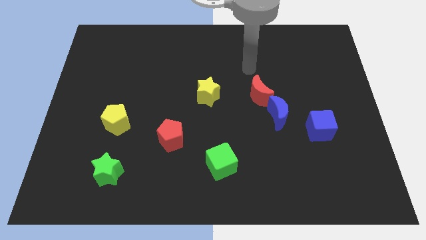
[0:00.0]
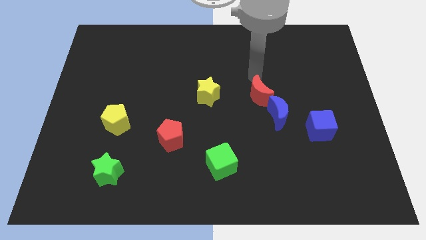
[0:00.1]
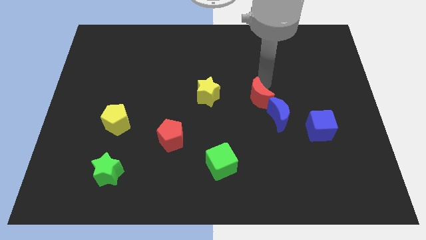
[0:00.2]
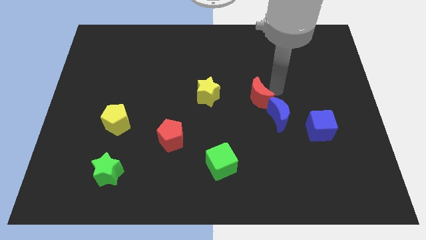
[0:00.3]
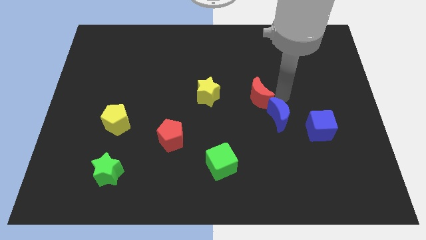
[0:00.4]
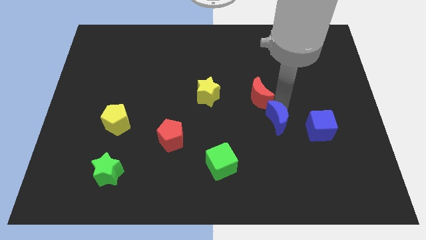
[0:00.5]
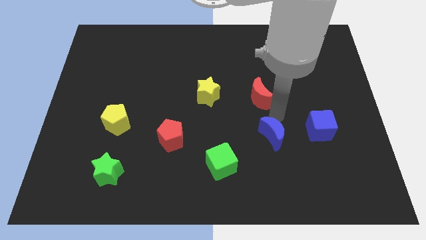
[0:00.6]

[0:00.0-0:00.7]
move the red moon away from the blue moon

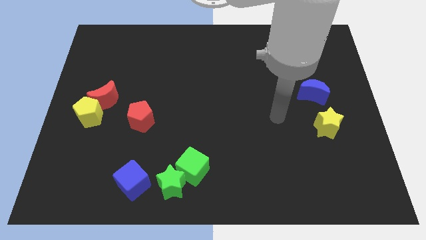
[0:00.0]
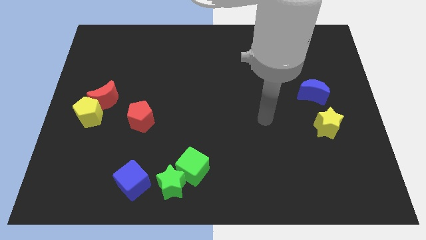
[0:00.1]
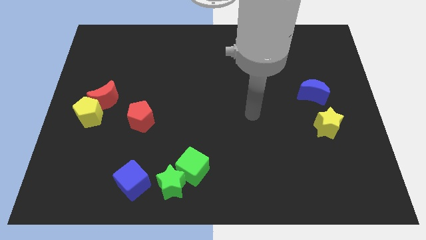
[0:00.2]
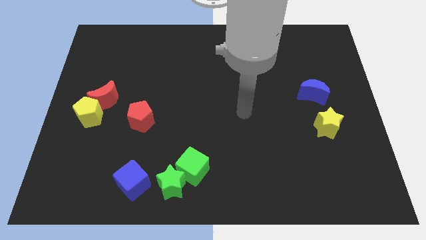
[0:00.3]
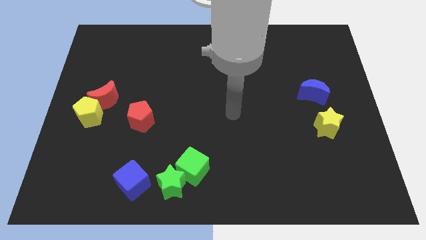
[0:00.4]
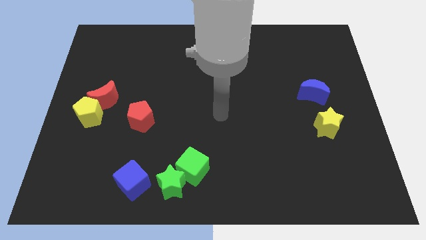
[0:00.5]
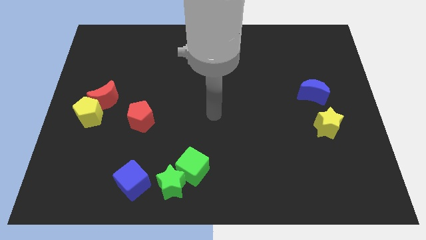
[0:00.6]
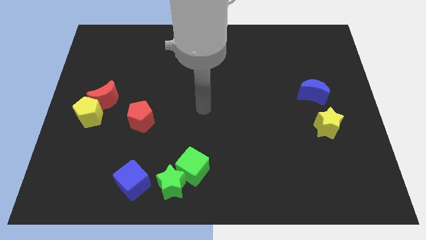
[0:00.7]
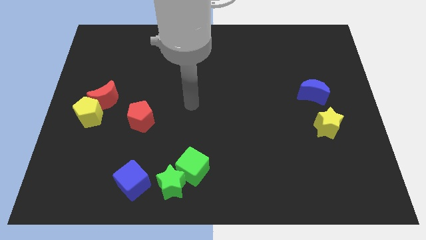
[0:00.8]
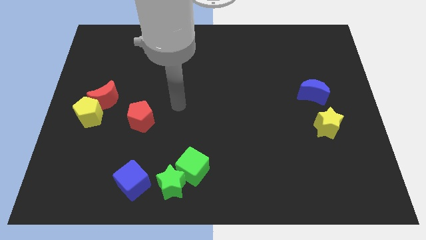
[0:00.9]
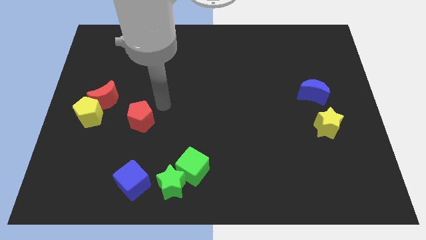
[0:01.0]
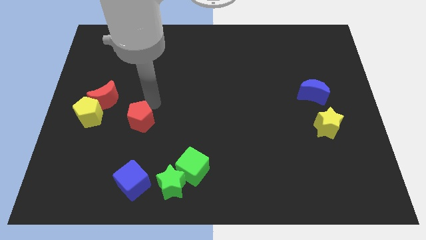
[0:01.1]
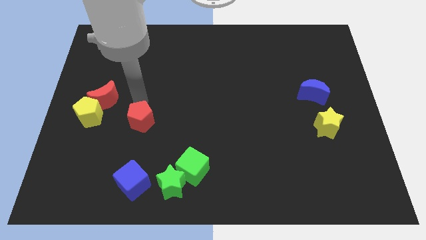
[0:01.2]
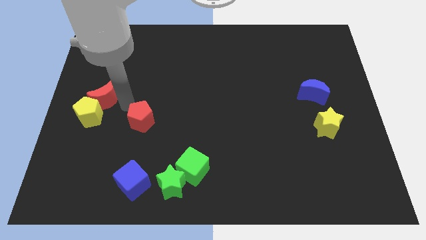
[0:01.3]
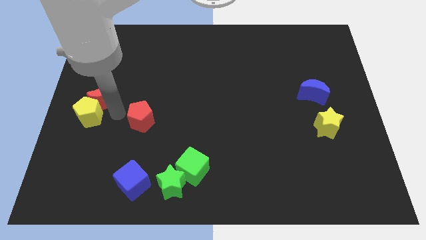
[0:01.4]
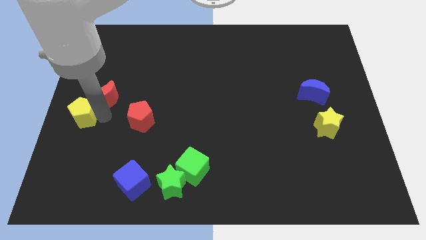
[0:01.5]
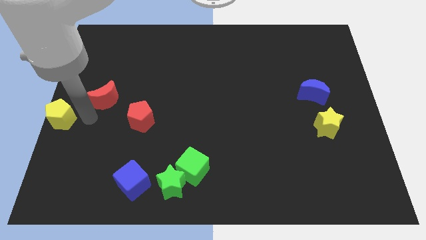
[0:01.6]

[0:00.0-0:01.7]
separate the red moon from the yellow pentagon

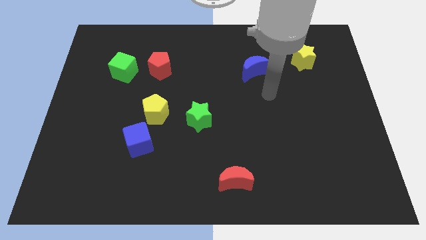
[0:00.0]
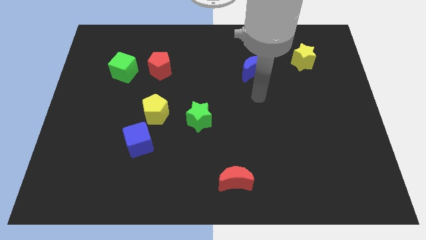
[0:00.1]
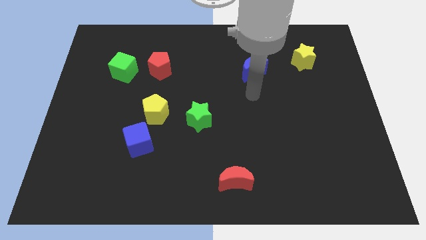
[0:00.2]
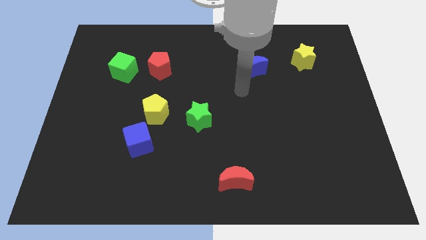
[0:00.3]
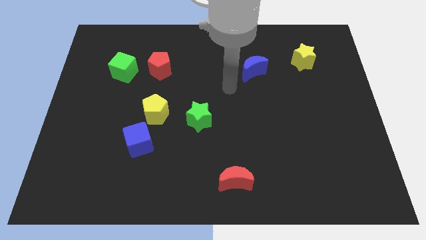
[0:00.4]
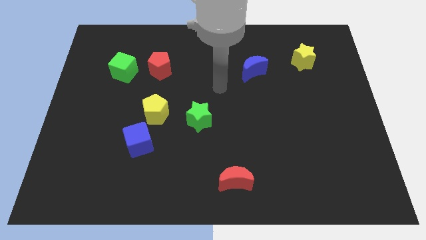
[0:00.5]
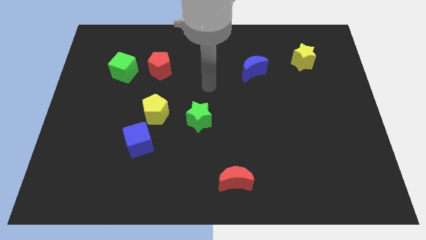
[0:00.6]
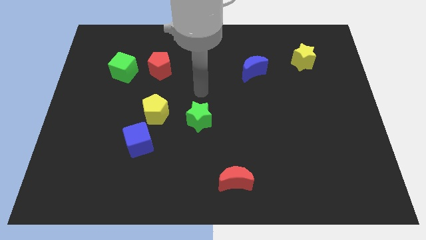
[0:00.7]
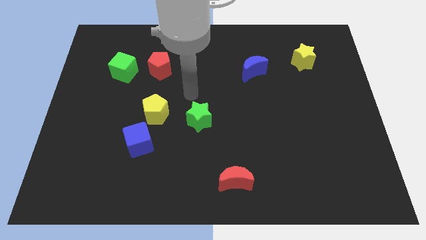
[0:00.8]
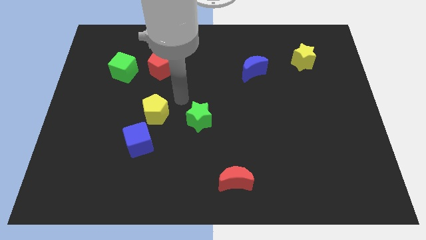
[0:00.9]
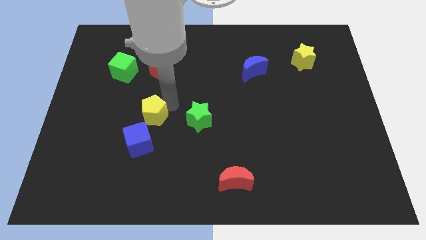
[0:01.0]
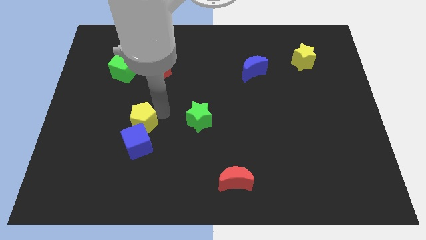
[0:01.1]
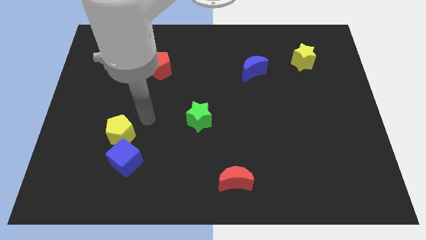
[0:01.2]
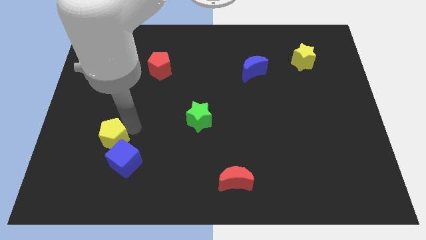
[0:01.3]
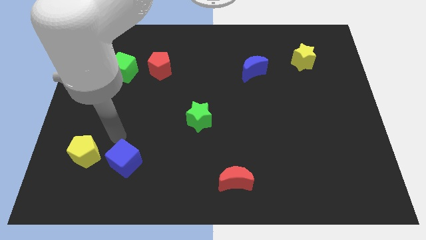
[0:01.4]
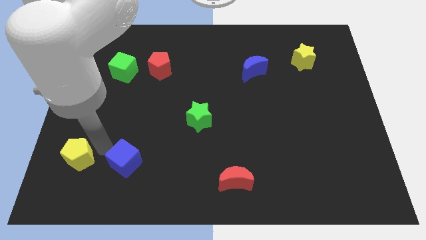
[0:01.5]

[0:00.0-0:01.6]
pull the blue cube apart from the yellow pentagon

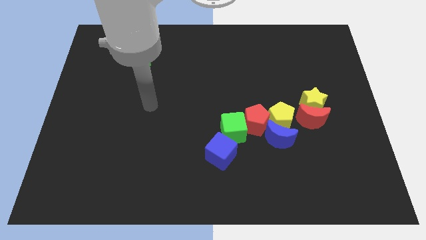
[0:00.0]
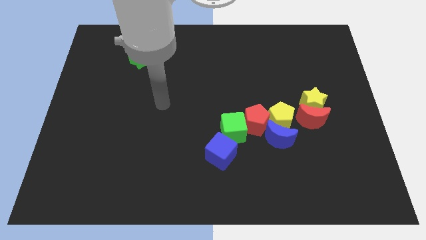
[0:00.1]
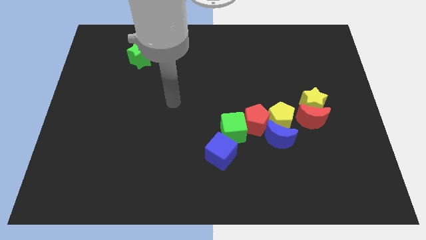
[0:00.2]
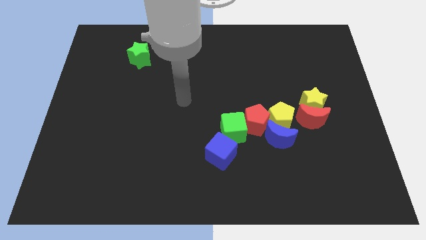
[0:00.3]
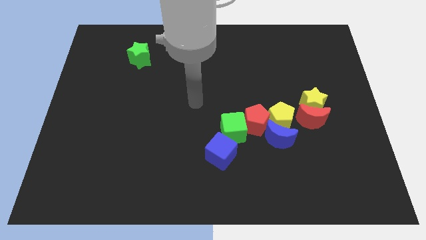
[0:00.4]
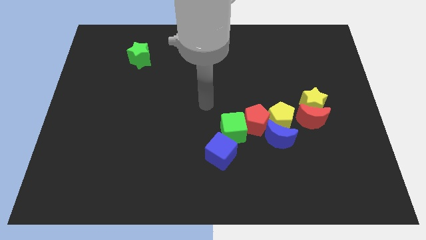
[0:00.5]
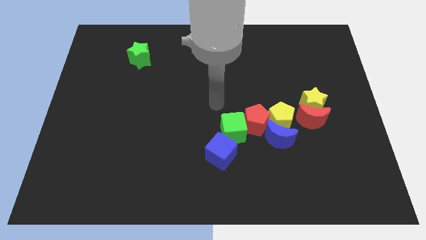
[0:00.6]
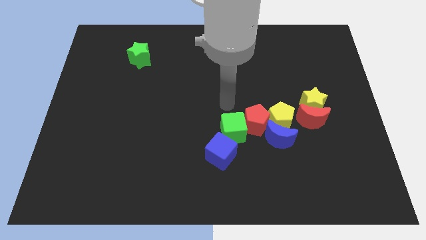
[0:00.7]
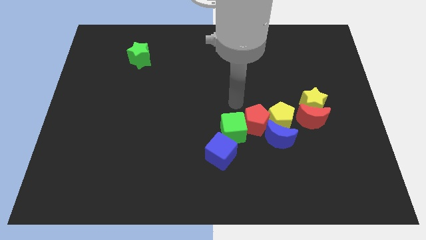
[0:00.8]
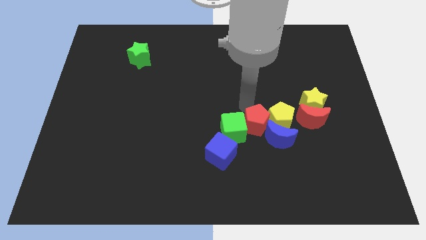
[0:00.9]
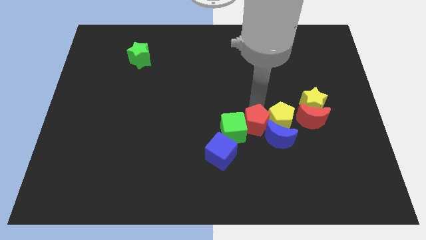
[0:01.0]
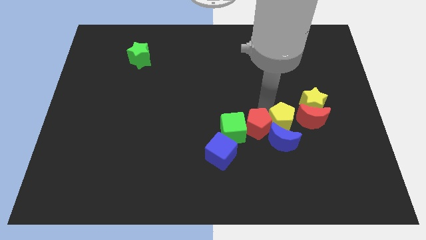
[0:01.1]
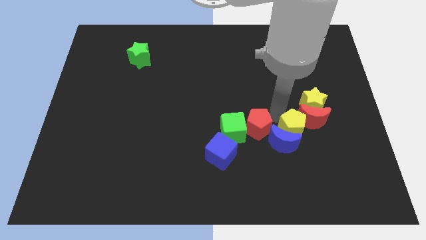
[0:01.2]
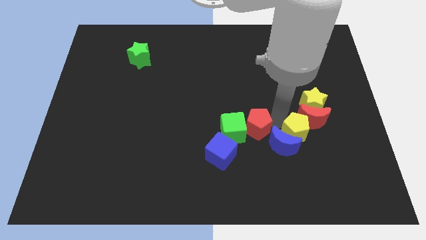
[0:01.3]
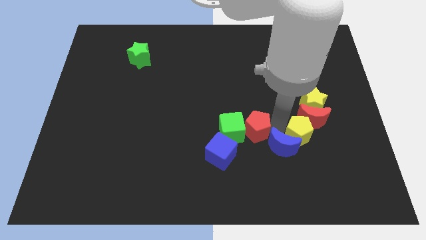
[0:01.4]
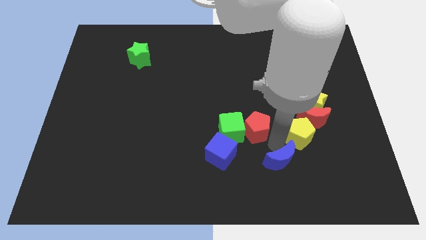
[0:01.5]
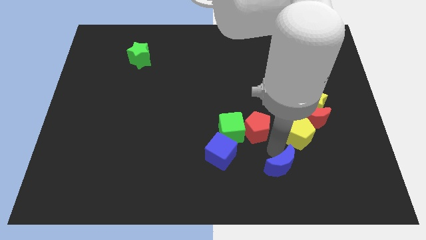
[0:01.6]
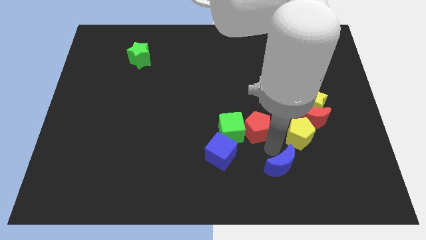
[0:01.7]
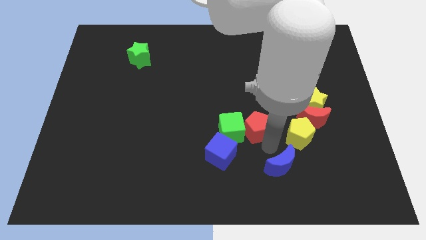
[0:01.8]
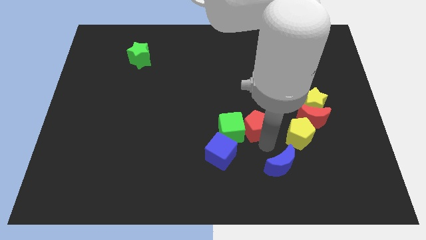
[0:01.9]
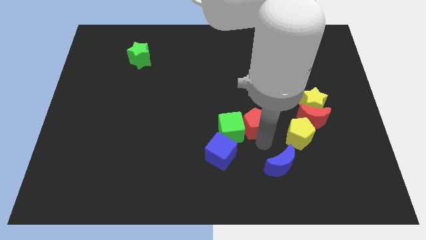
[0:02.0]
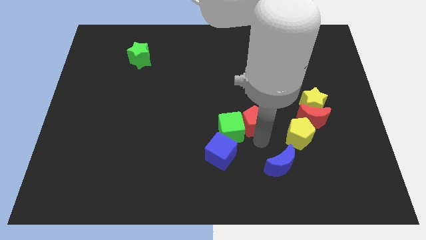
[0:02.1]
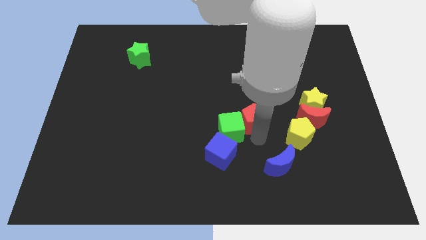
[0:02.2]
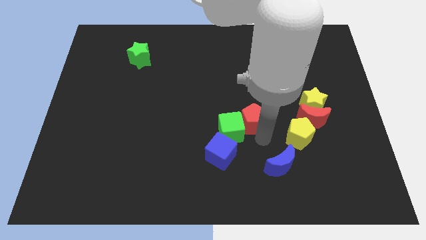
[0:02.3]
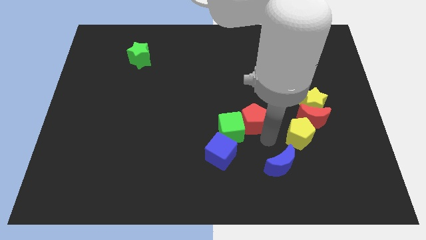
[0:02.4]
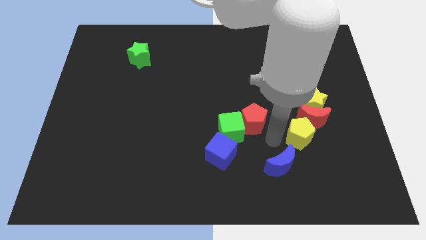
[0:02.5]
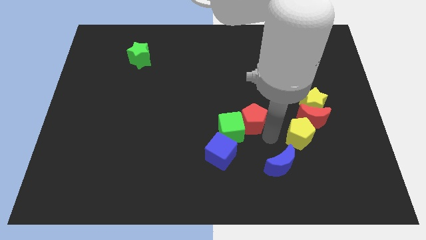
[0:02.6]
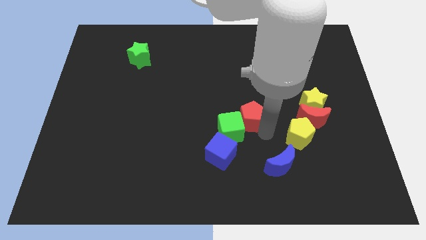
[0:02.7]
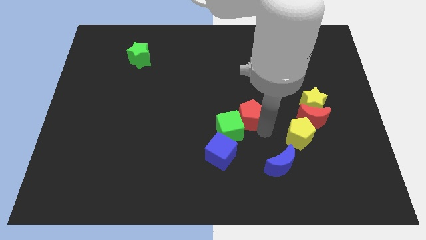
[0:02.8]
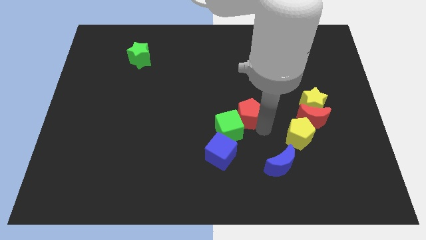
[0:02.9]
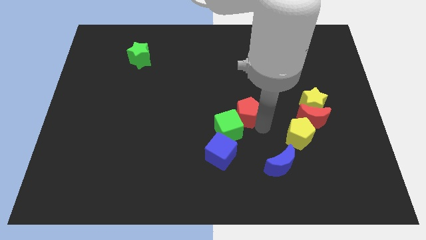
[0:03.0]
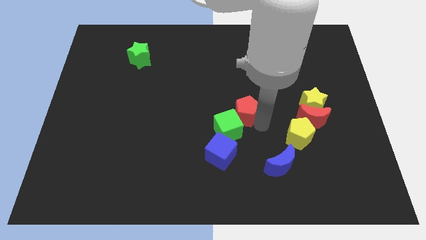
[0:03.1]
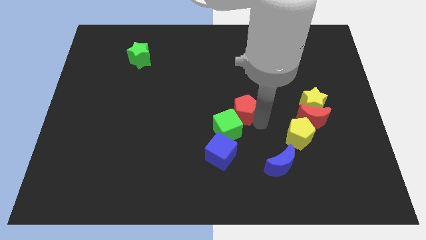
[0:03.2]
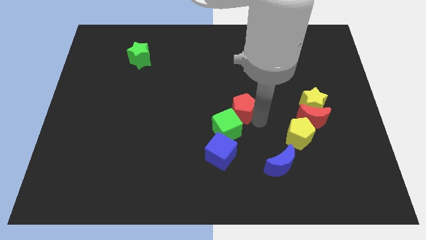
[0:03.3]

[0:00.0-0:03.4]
move the red pentagon away from the group of blocks

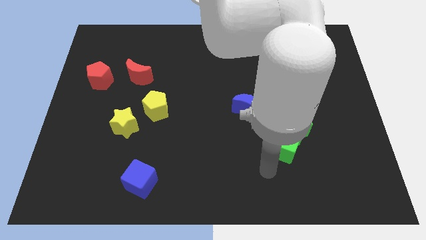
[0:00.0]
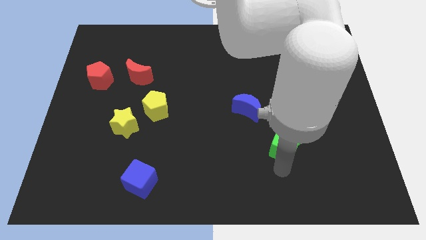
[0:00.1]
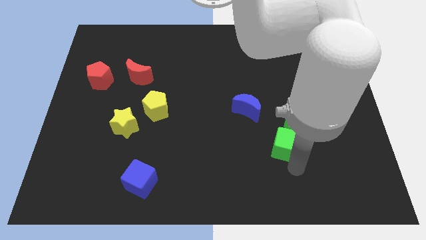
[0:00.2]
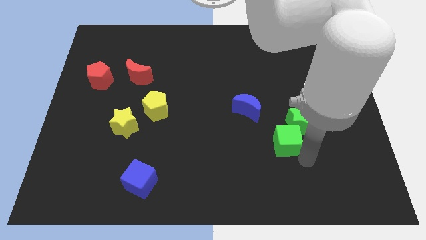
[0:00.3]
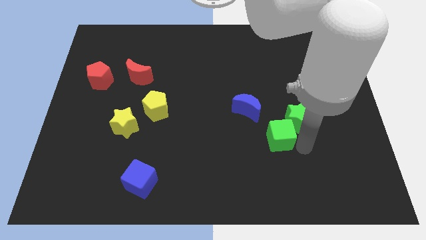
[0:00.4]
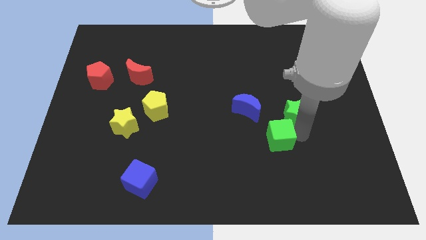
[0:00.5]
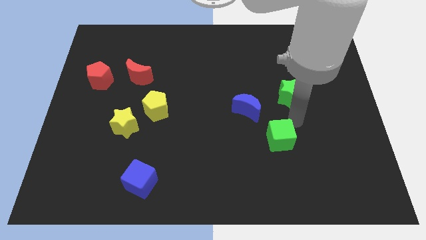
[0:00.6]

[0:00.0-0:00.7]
separate the green cube from the green star

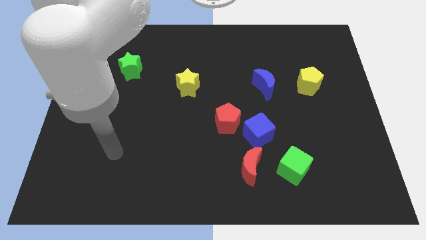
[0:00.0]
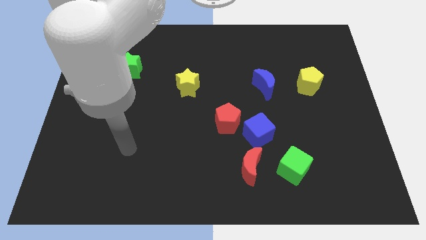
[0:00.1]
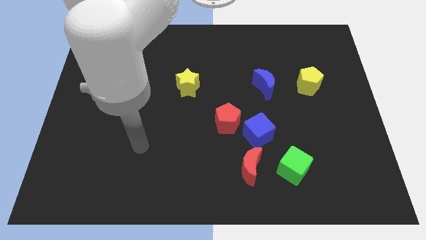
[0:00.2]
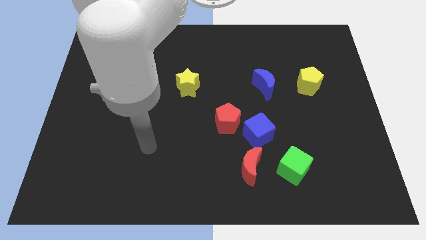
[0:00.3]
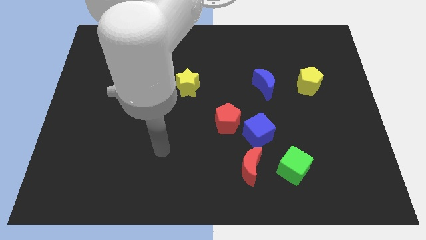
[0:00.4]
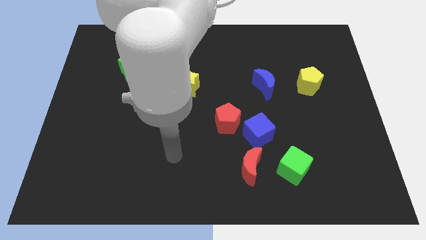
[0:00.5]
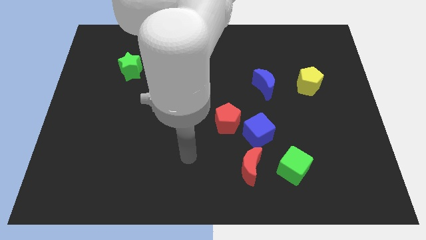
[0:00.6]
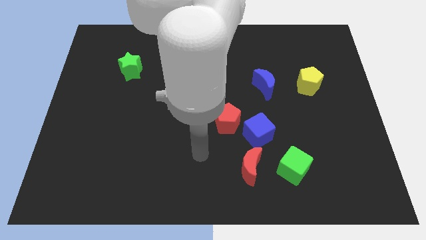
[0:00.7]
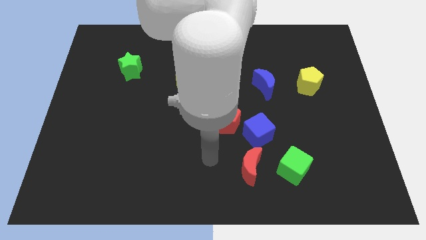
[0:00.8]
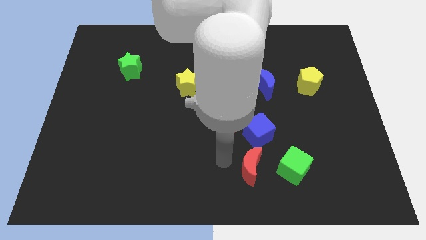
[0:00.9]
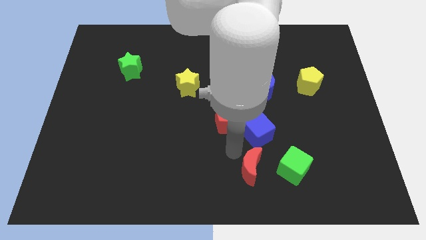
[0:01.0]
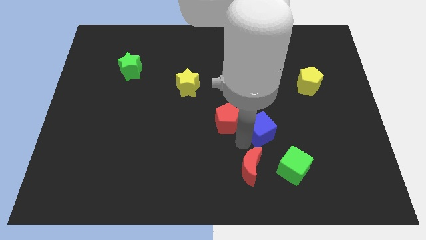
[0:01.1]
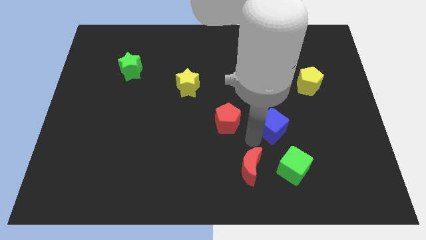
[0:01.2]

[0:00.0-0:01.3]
pull the red pentagon apart from the blue cube
